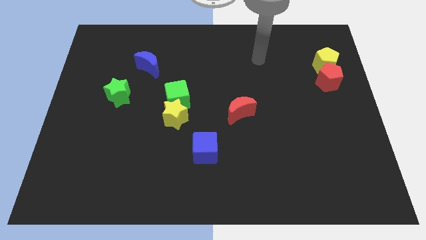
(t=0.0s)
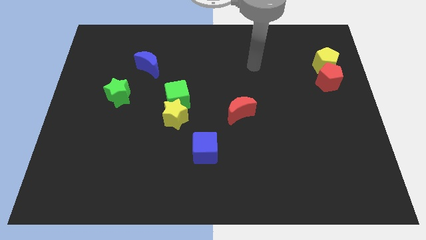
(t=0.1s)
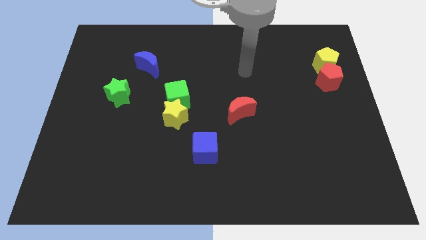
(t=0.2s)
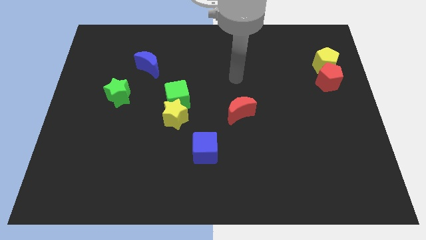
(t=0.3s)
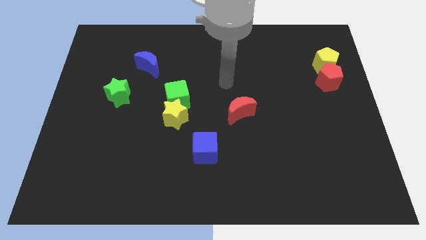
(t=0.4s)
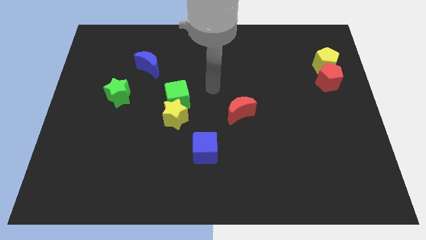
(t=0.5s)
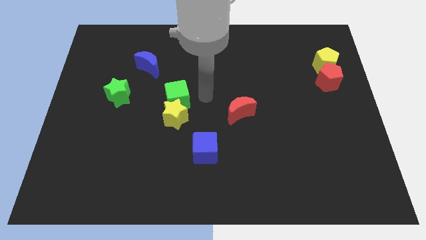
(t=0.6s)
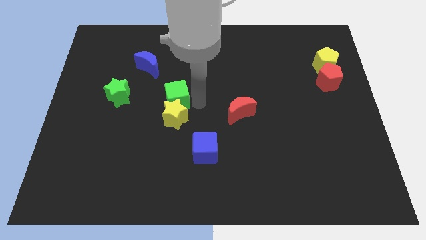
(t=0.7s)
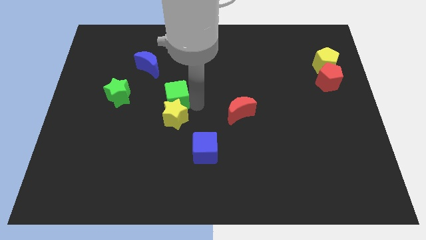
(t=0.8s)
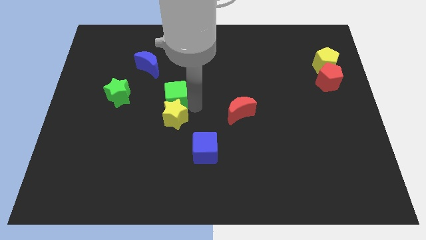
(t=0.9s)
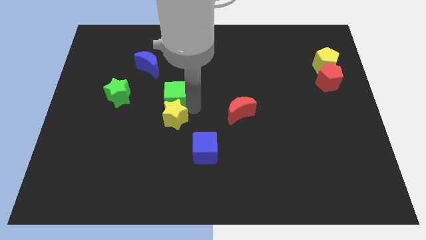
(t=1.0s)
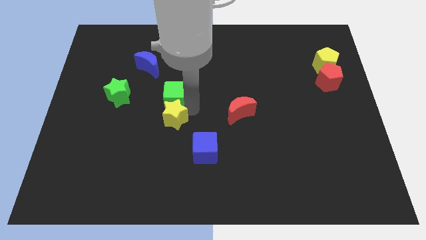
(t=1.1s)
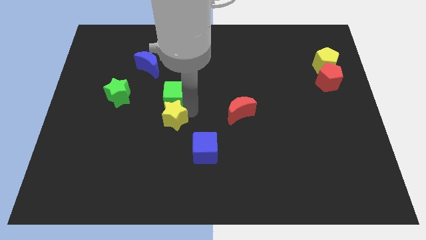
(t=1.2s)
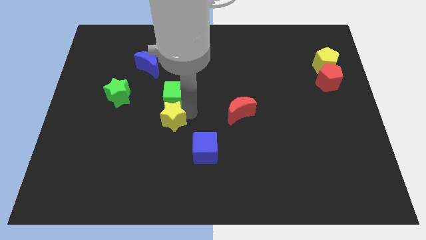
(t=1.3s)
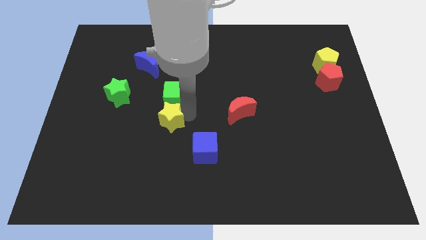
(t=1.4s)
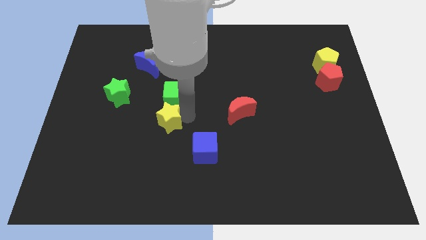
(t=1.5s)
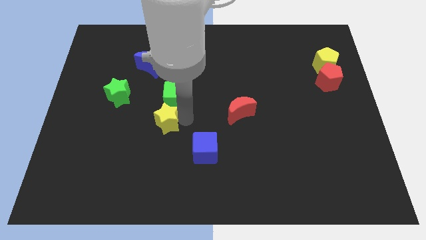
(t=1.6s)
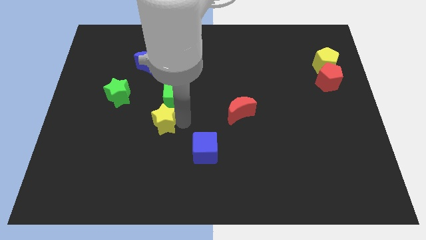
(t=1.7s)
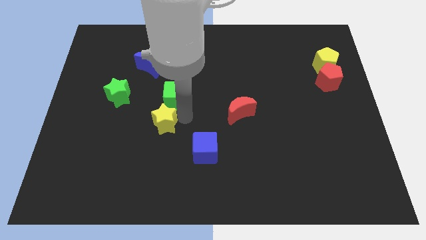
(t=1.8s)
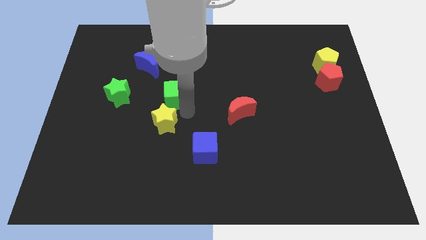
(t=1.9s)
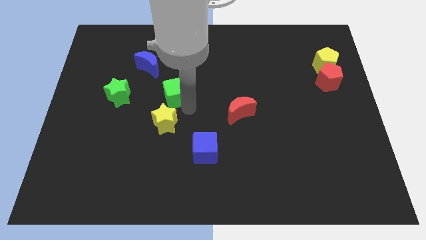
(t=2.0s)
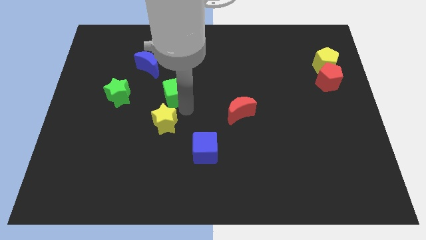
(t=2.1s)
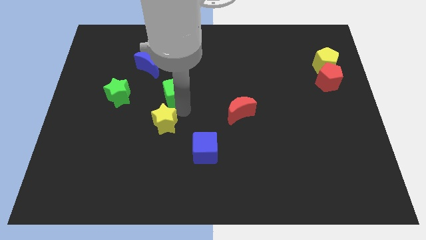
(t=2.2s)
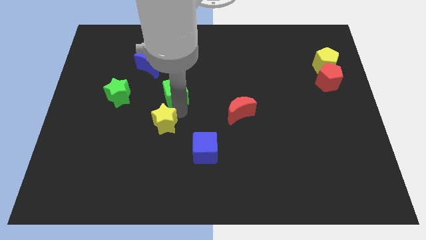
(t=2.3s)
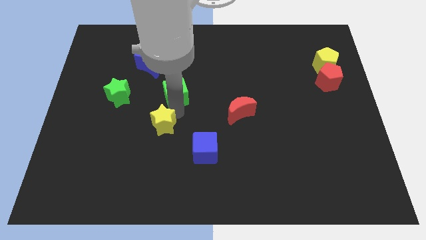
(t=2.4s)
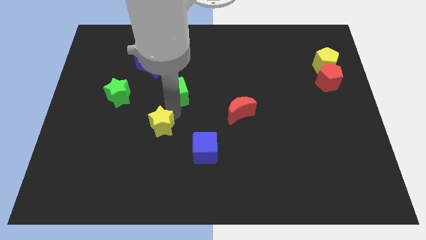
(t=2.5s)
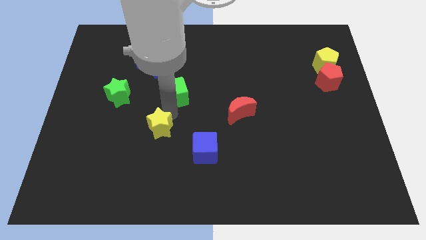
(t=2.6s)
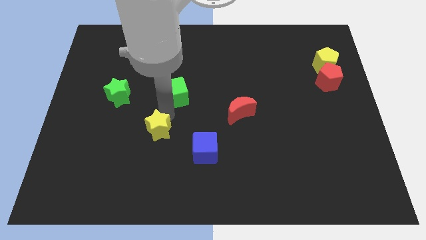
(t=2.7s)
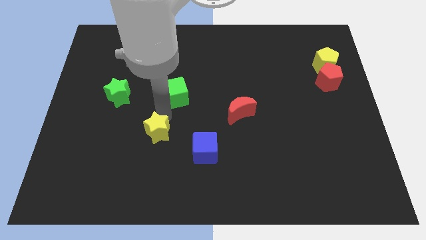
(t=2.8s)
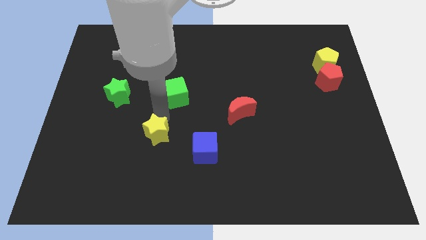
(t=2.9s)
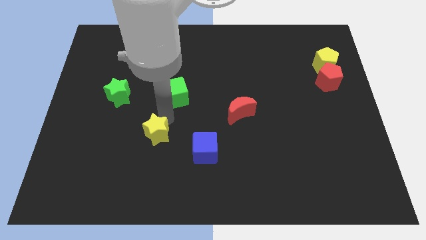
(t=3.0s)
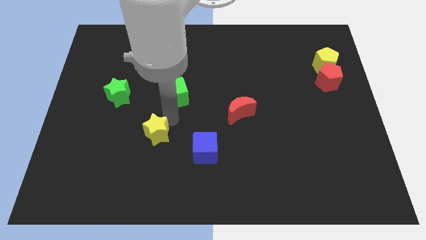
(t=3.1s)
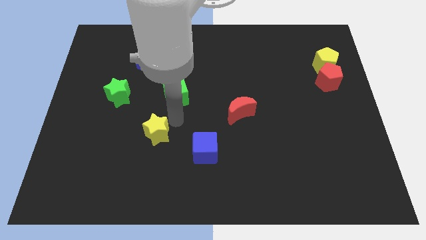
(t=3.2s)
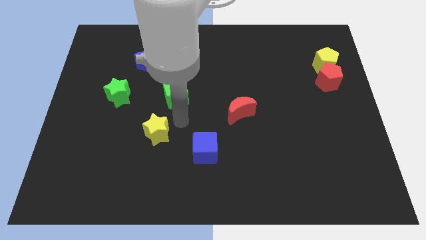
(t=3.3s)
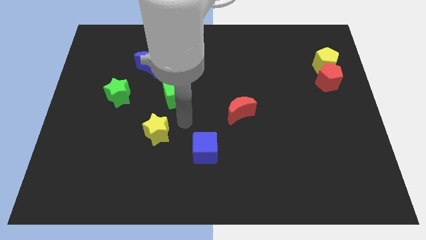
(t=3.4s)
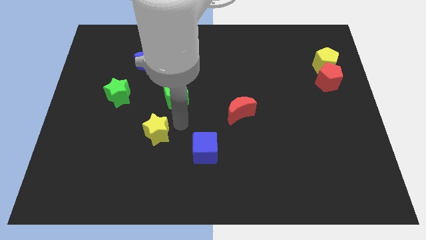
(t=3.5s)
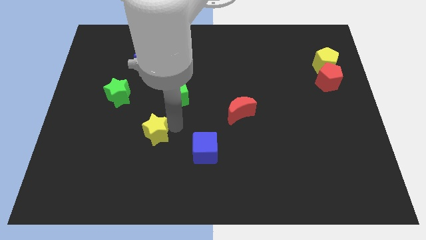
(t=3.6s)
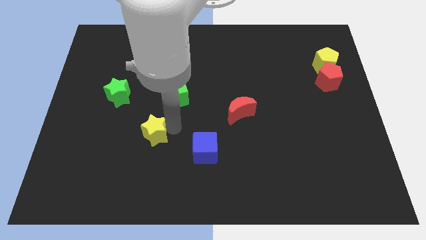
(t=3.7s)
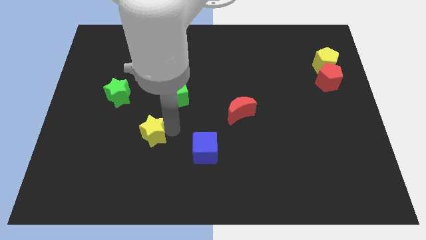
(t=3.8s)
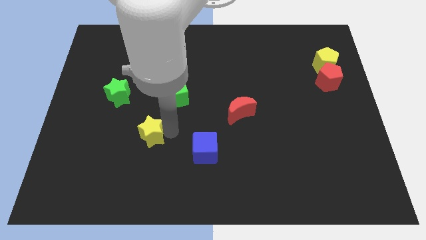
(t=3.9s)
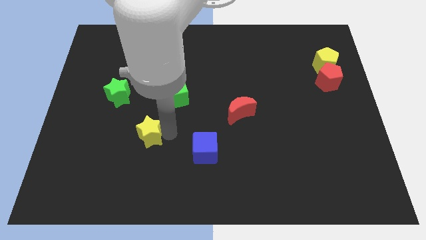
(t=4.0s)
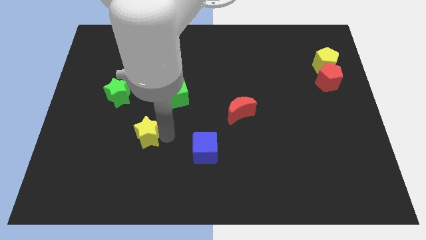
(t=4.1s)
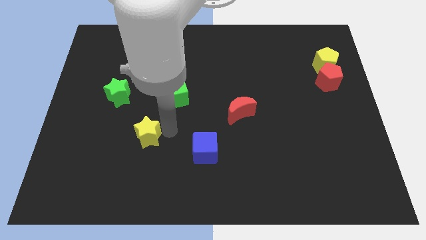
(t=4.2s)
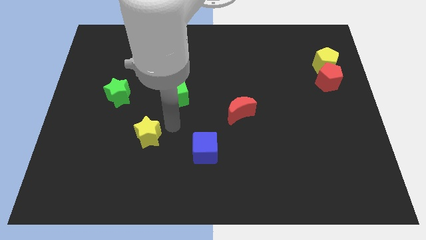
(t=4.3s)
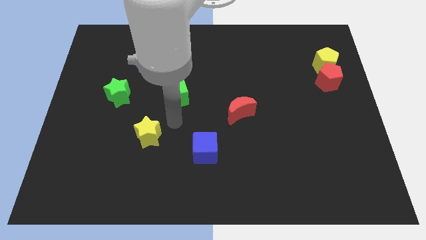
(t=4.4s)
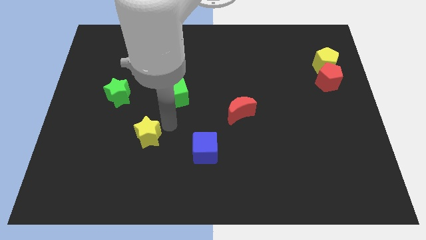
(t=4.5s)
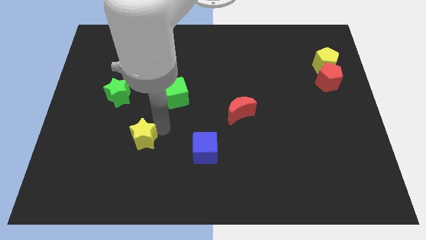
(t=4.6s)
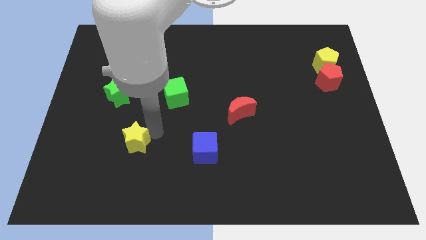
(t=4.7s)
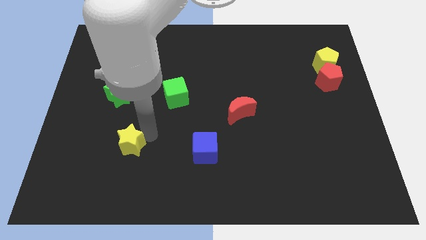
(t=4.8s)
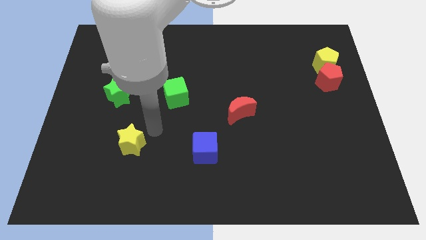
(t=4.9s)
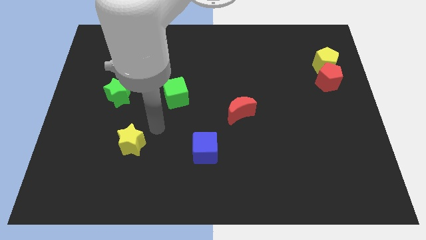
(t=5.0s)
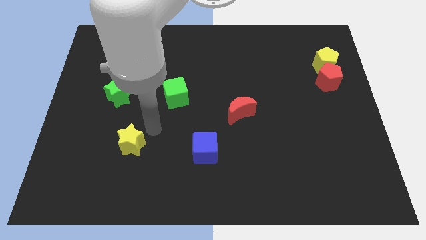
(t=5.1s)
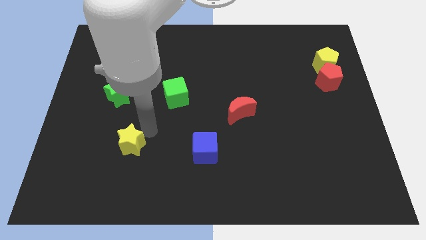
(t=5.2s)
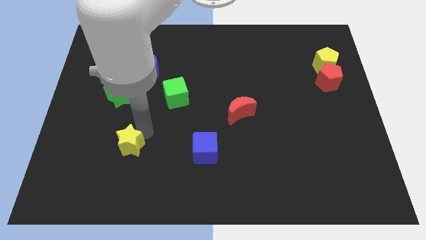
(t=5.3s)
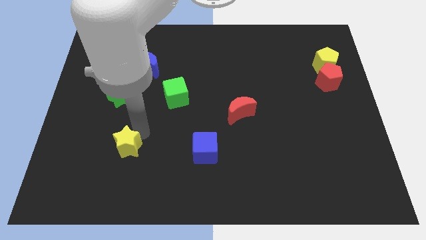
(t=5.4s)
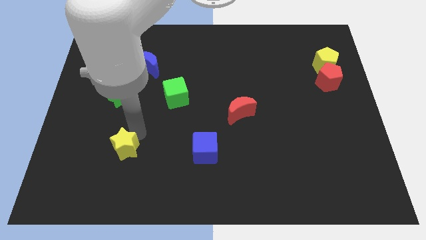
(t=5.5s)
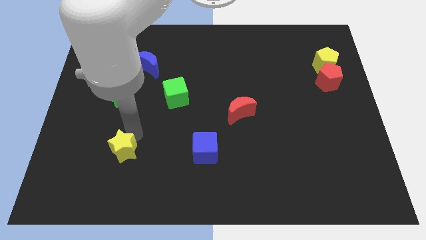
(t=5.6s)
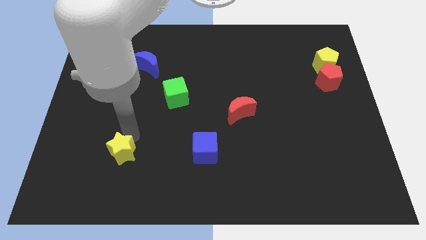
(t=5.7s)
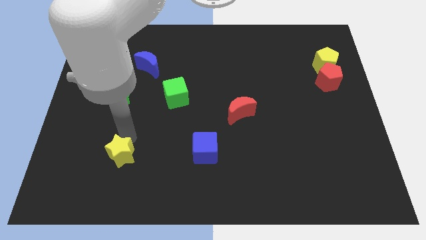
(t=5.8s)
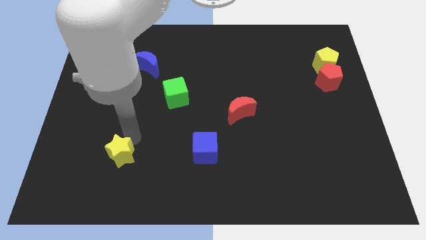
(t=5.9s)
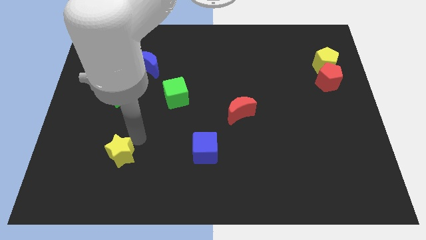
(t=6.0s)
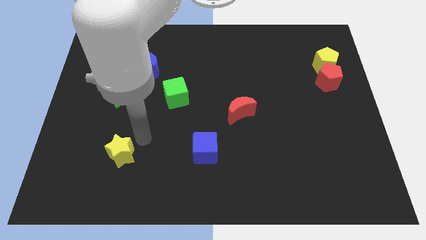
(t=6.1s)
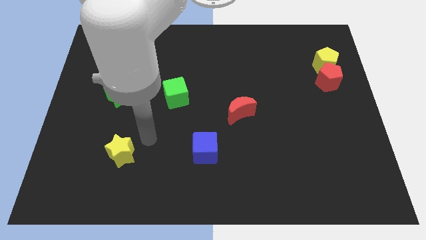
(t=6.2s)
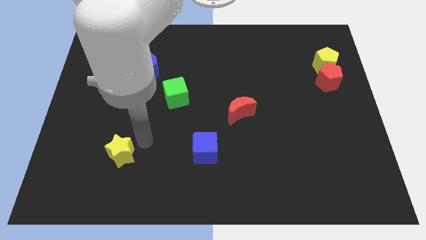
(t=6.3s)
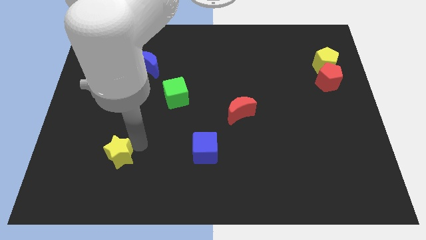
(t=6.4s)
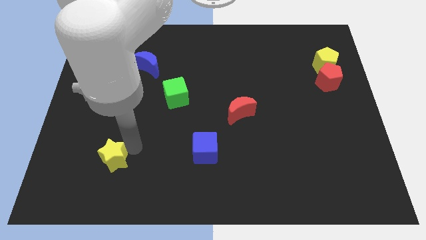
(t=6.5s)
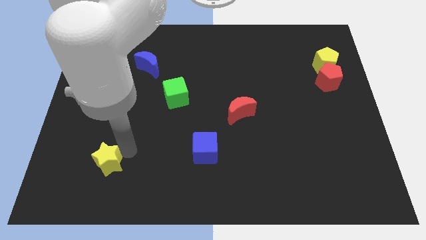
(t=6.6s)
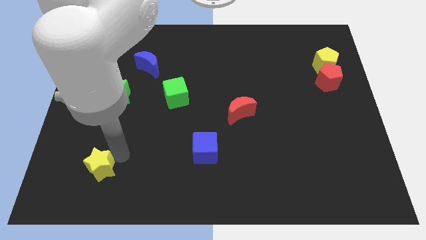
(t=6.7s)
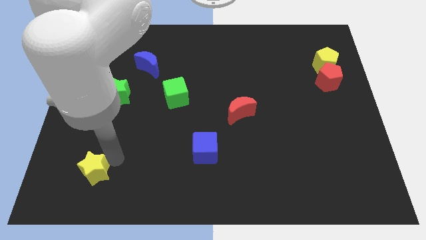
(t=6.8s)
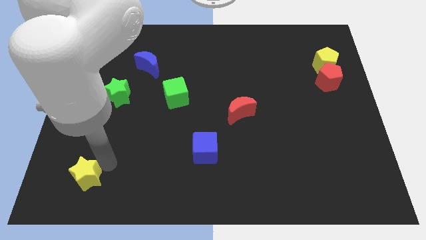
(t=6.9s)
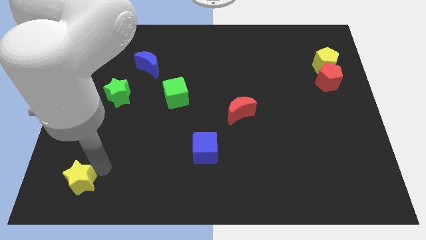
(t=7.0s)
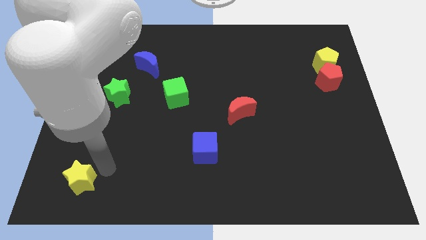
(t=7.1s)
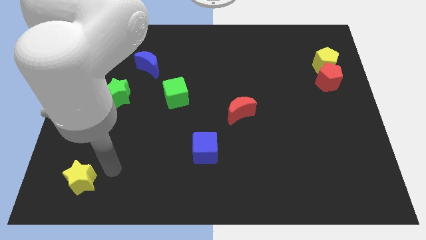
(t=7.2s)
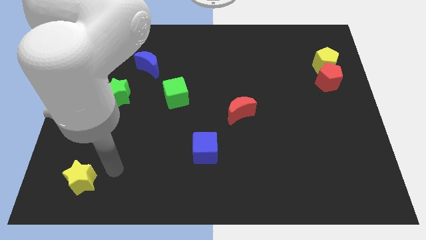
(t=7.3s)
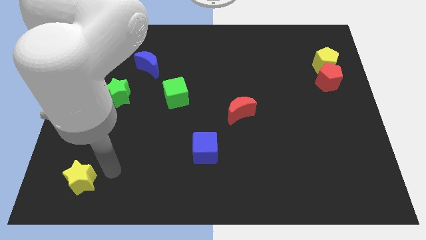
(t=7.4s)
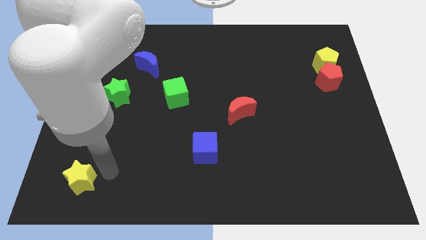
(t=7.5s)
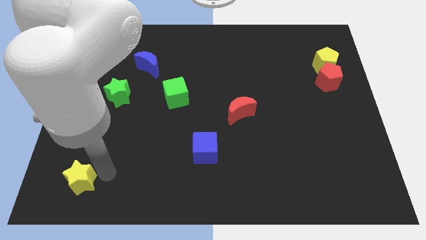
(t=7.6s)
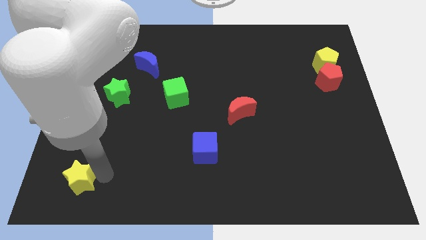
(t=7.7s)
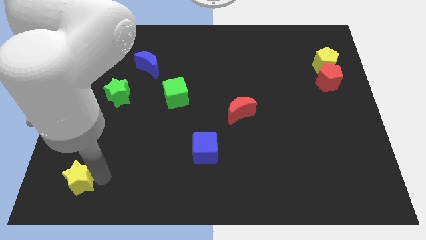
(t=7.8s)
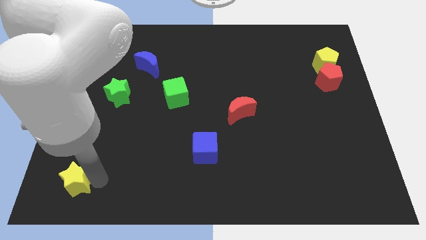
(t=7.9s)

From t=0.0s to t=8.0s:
push the yellow star to the bottom left corner
